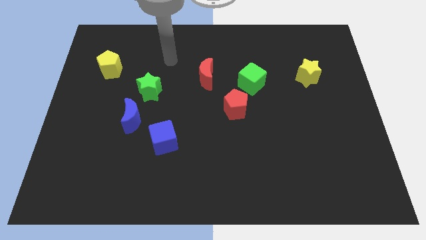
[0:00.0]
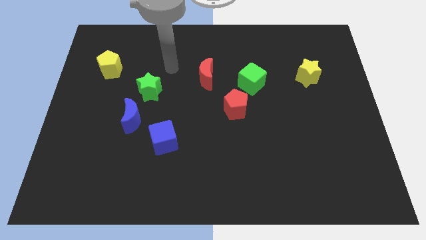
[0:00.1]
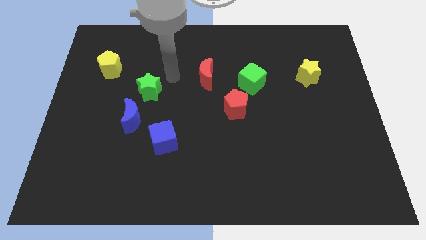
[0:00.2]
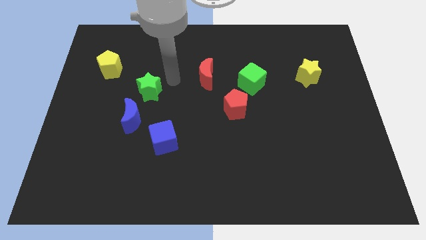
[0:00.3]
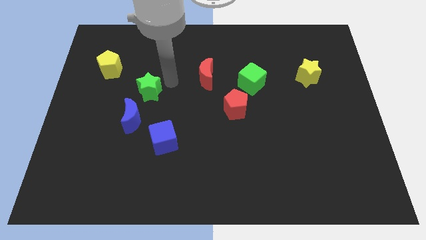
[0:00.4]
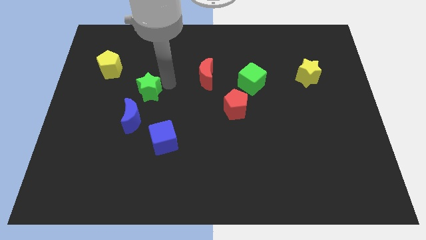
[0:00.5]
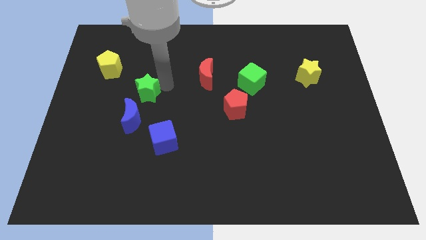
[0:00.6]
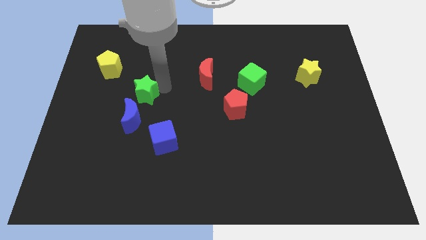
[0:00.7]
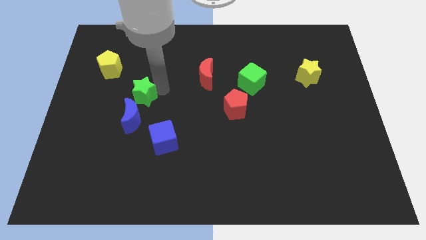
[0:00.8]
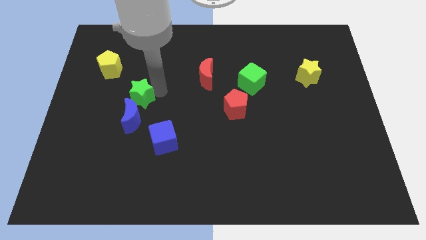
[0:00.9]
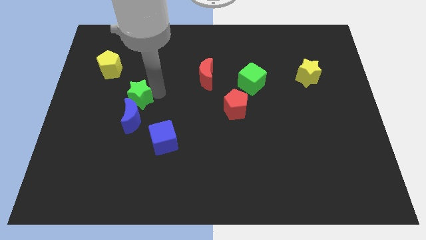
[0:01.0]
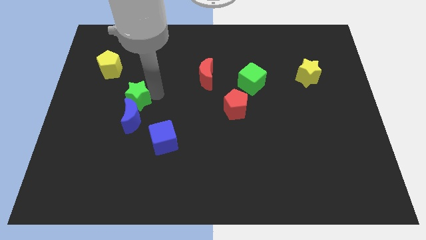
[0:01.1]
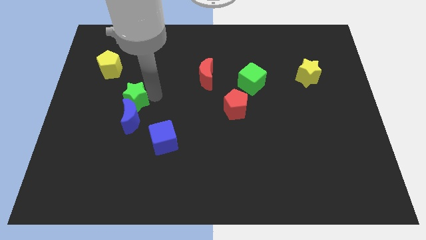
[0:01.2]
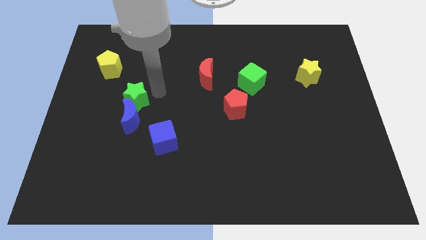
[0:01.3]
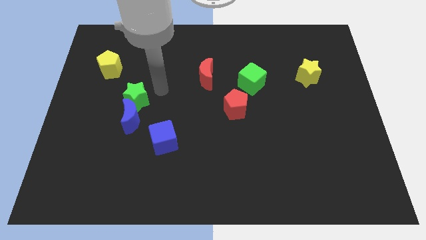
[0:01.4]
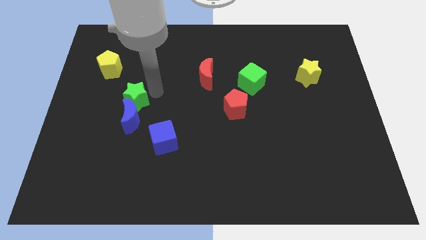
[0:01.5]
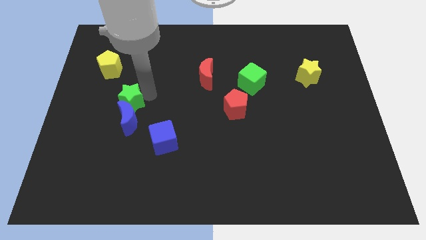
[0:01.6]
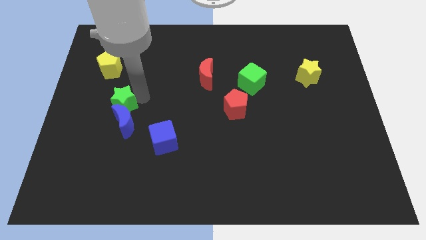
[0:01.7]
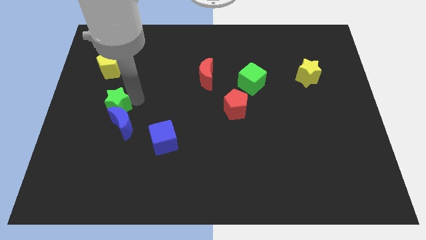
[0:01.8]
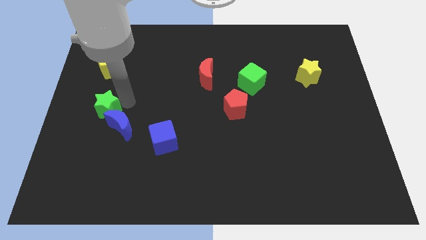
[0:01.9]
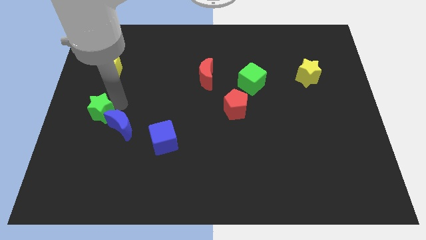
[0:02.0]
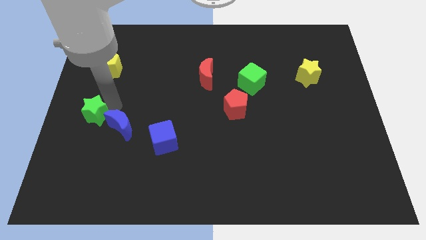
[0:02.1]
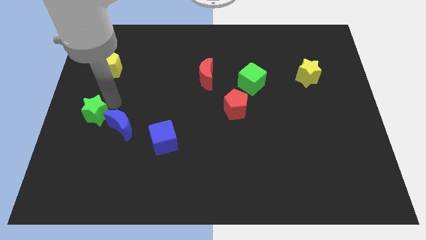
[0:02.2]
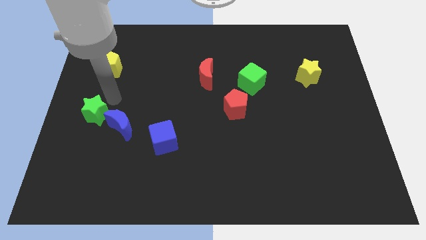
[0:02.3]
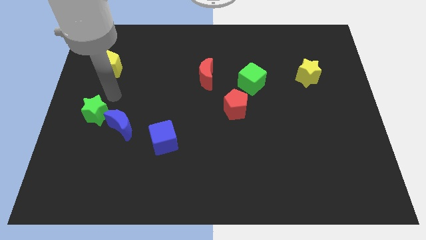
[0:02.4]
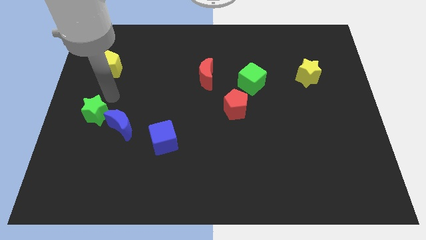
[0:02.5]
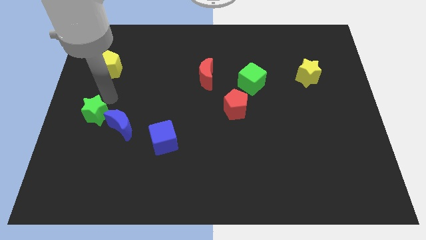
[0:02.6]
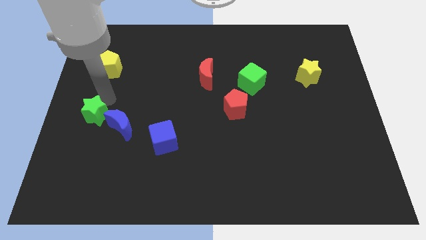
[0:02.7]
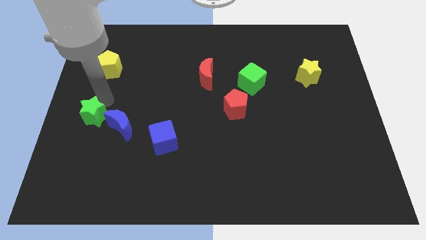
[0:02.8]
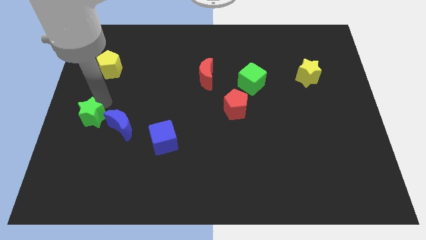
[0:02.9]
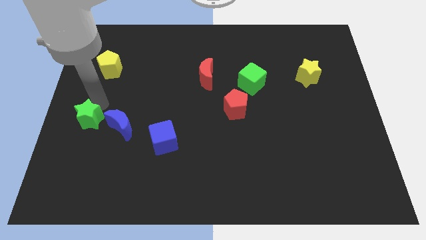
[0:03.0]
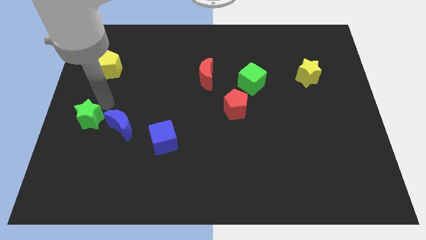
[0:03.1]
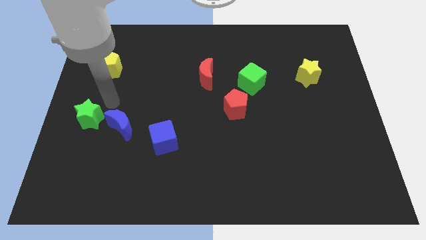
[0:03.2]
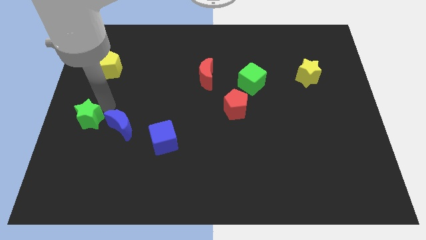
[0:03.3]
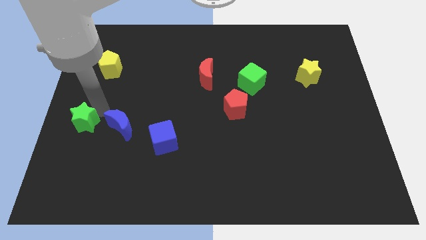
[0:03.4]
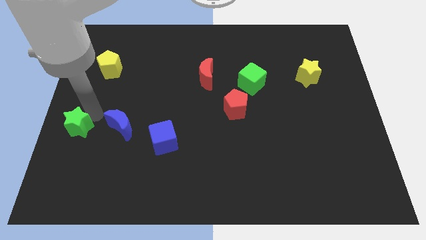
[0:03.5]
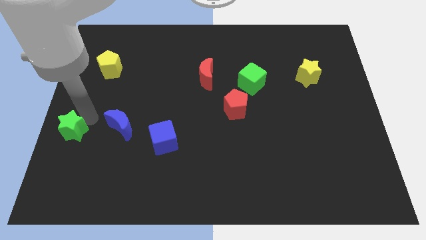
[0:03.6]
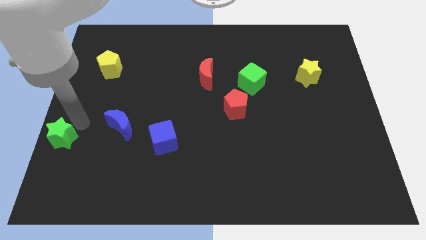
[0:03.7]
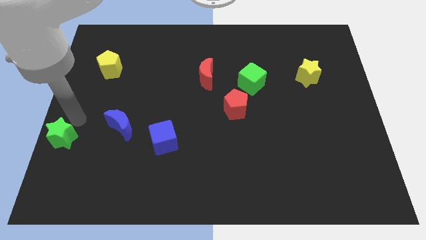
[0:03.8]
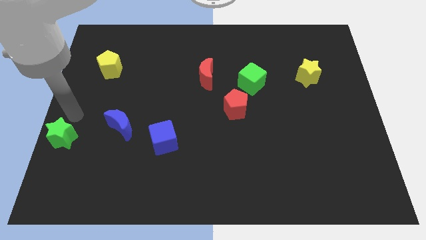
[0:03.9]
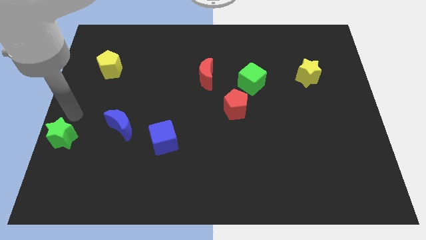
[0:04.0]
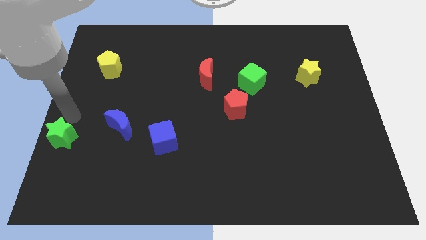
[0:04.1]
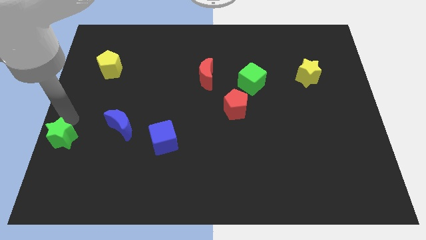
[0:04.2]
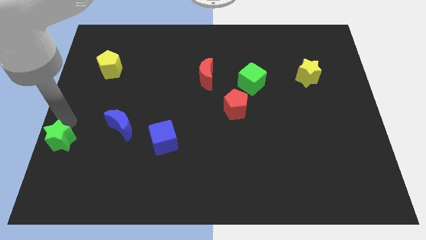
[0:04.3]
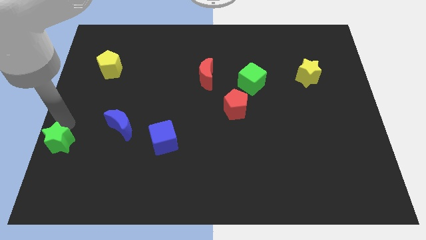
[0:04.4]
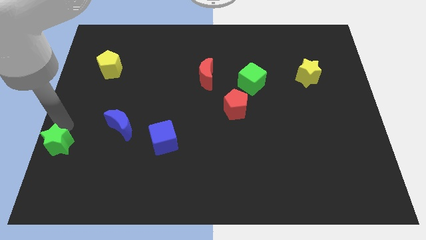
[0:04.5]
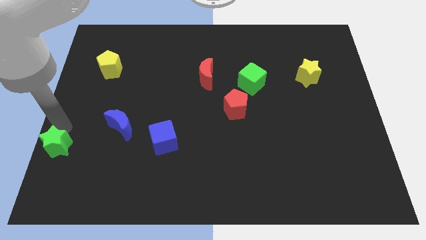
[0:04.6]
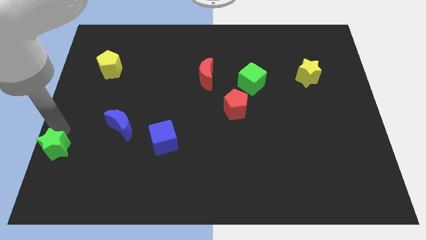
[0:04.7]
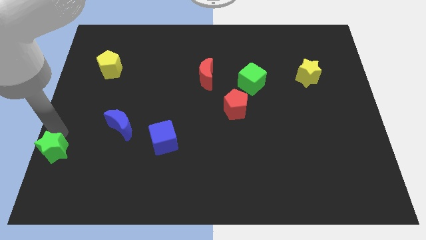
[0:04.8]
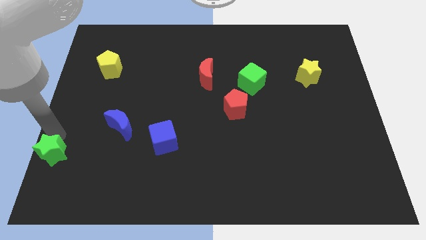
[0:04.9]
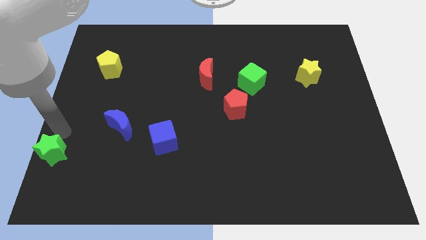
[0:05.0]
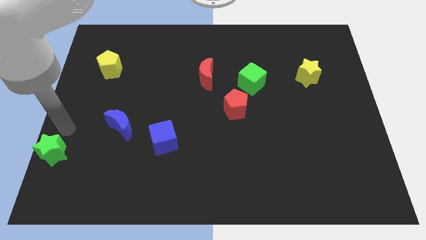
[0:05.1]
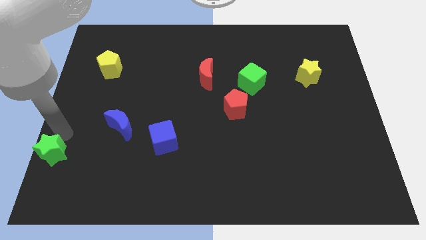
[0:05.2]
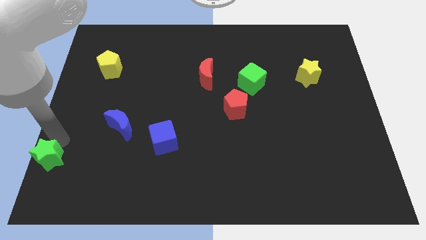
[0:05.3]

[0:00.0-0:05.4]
put the green star to the bottom left corner
